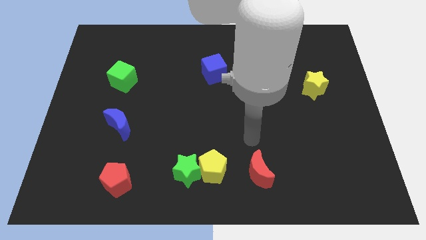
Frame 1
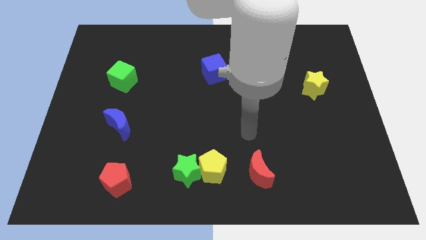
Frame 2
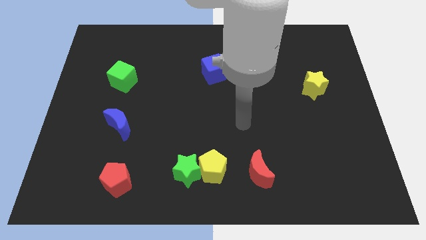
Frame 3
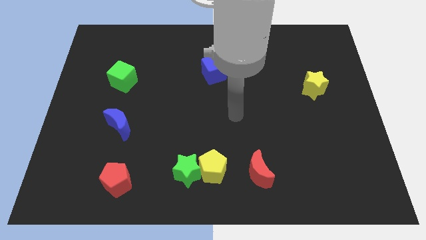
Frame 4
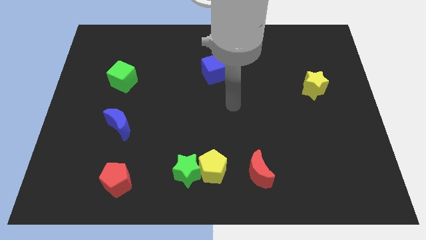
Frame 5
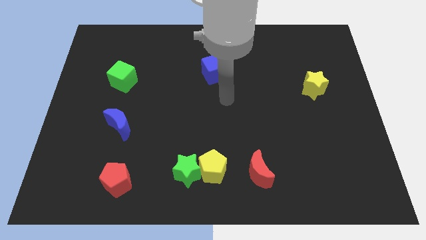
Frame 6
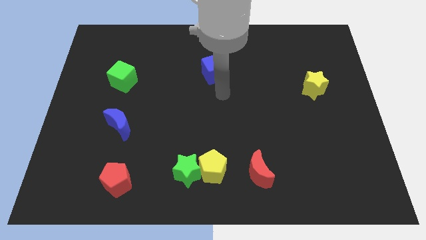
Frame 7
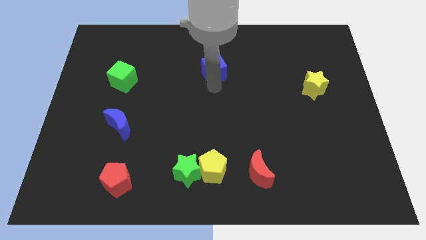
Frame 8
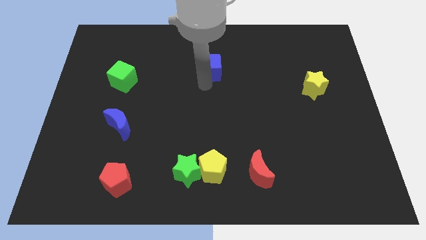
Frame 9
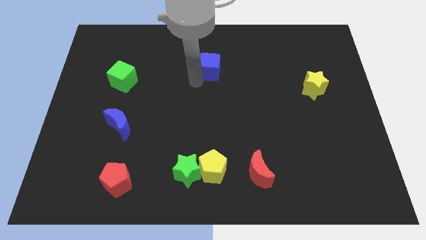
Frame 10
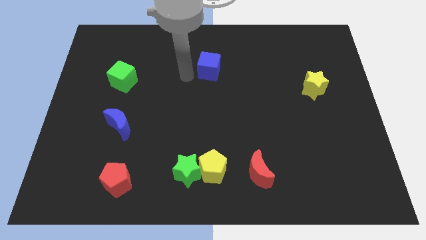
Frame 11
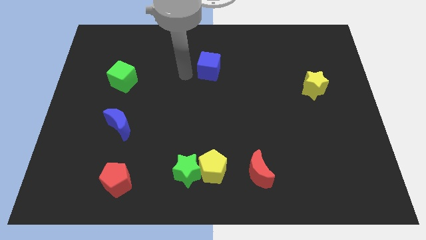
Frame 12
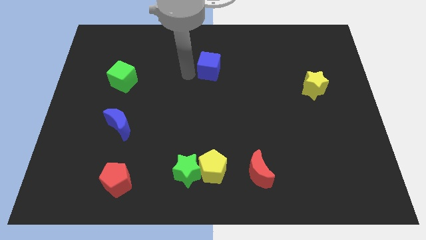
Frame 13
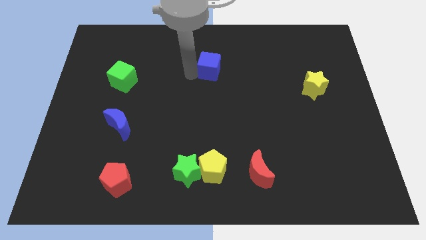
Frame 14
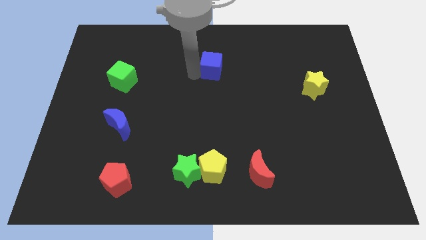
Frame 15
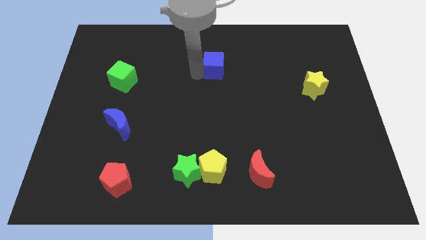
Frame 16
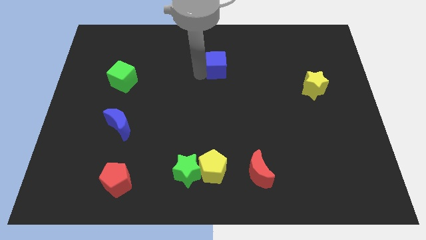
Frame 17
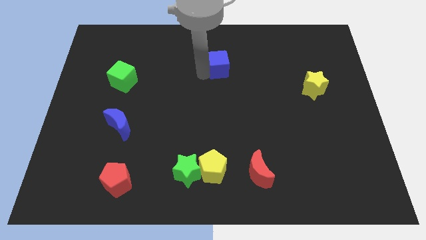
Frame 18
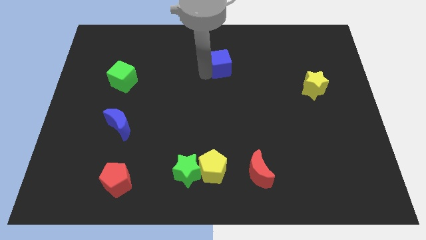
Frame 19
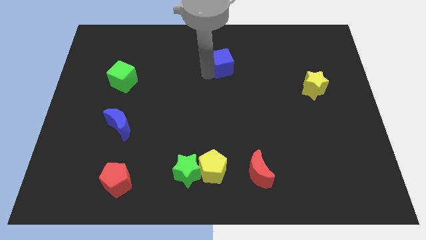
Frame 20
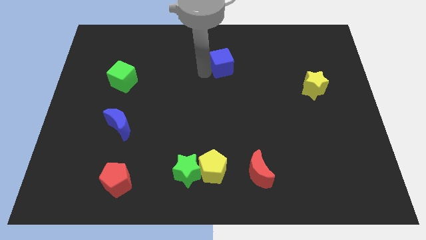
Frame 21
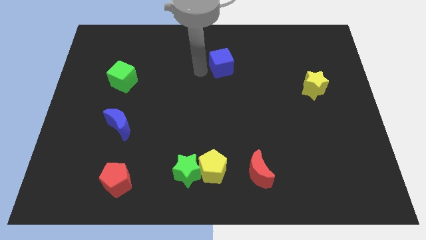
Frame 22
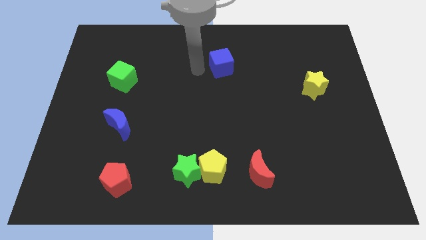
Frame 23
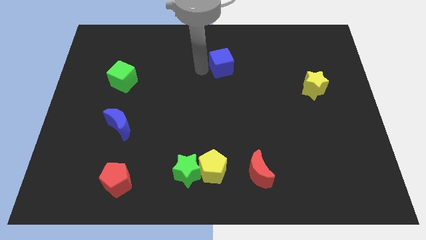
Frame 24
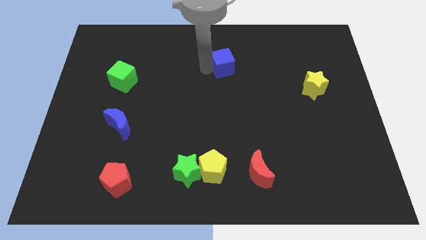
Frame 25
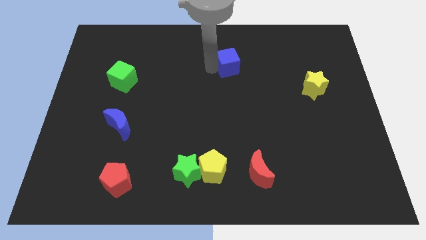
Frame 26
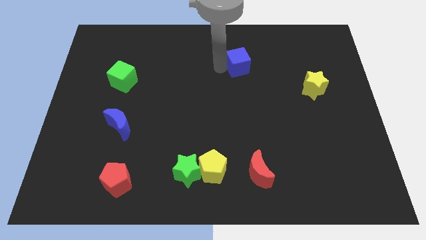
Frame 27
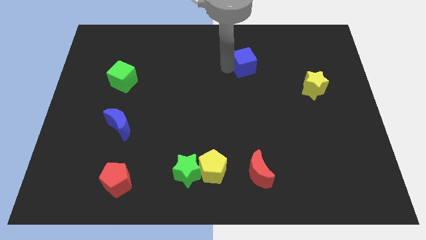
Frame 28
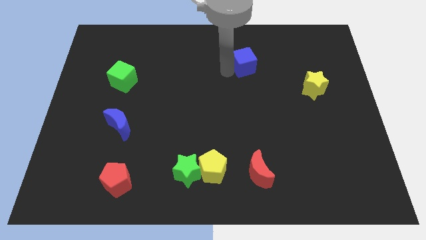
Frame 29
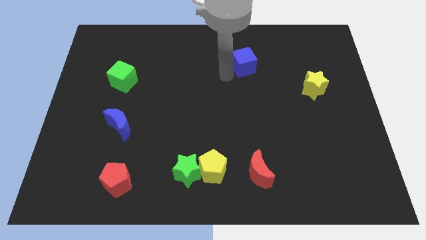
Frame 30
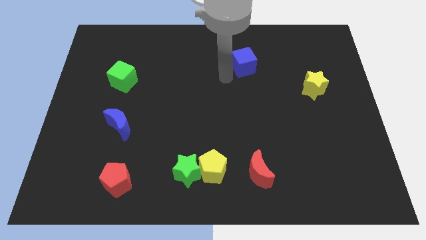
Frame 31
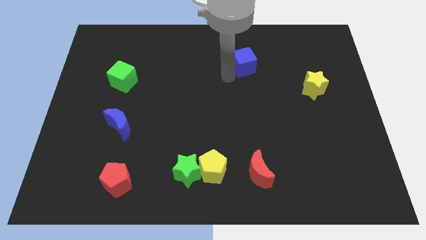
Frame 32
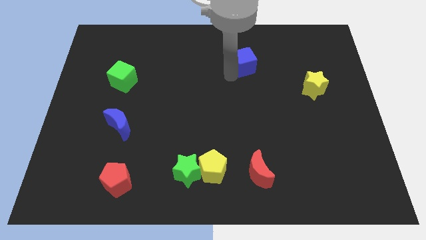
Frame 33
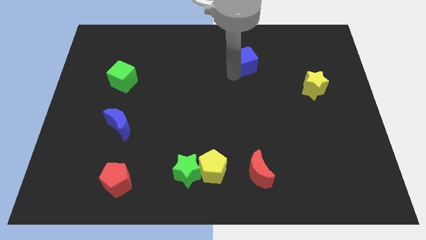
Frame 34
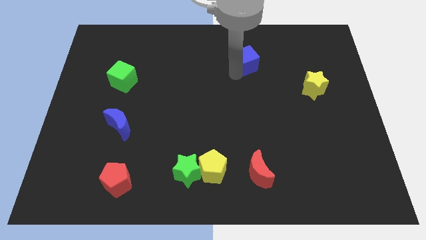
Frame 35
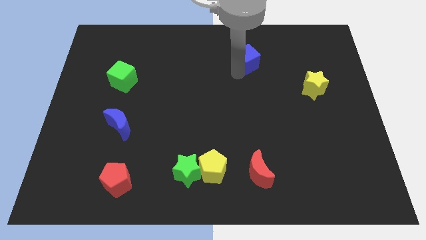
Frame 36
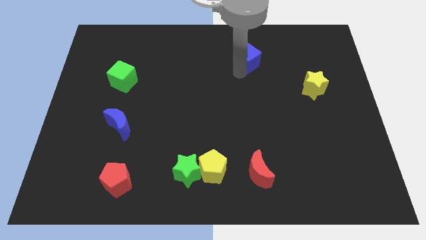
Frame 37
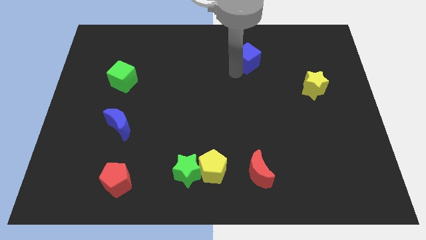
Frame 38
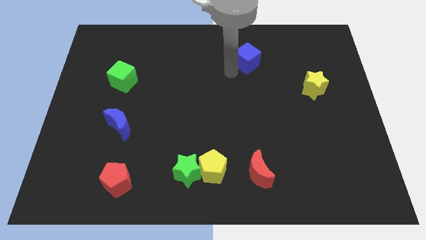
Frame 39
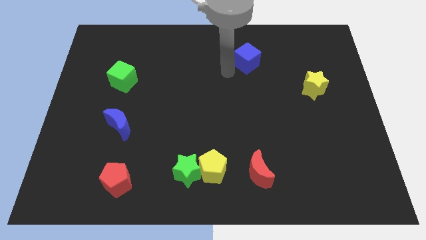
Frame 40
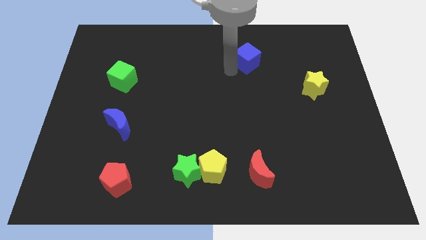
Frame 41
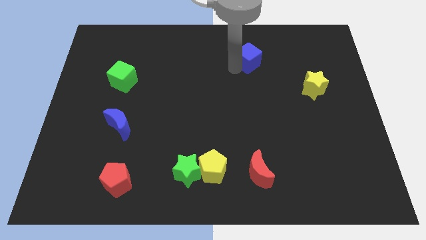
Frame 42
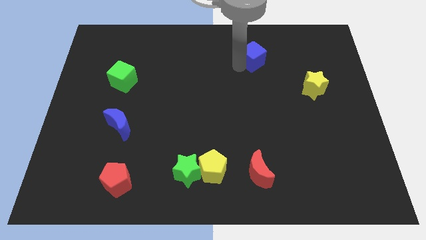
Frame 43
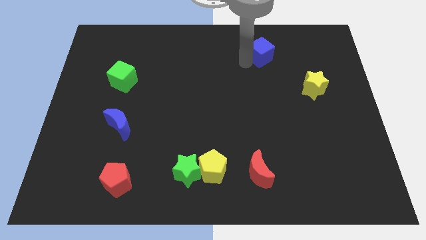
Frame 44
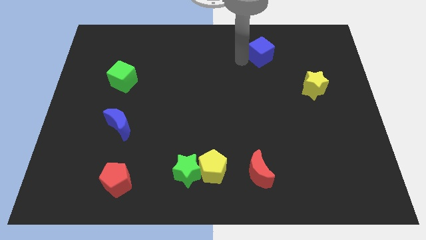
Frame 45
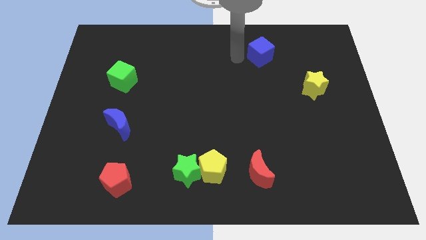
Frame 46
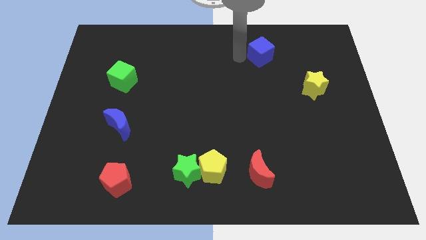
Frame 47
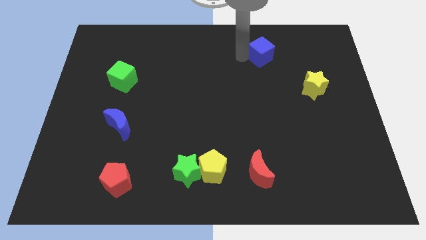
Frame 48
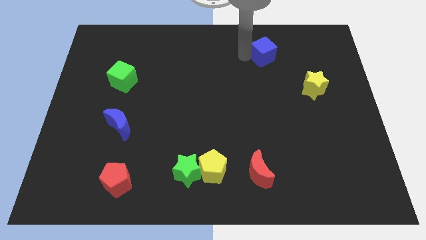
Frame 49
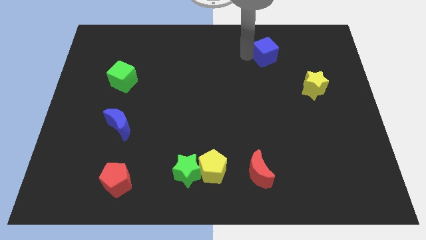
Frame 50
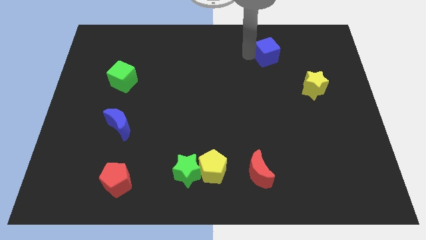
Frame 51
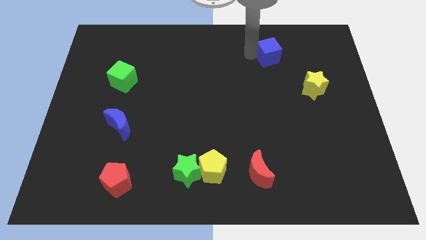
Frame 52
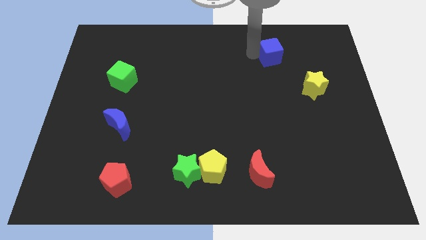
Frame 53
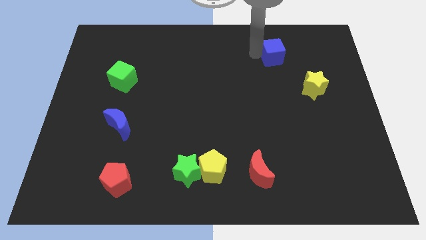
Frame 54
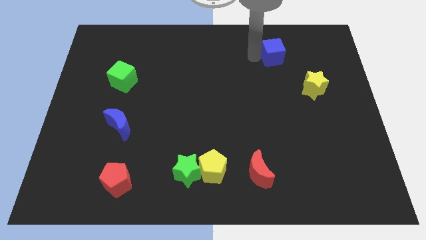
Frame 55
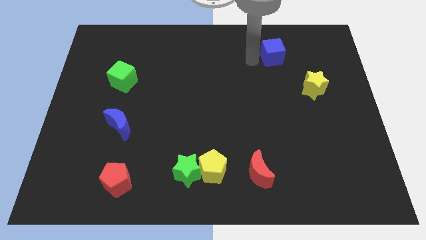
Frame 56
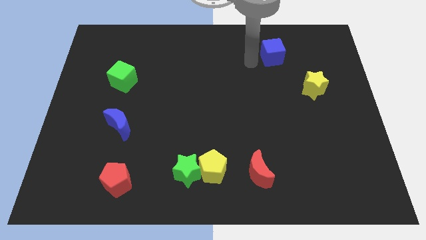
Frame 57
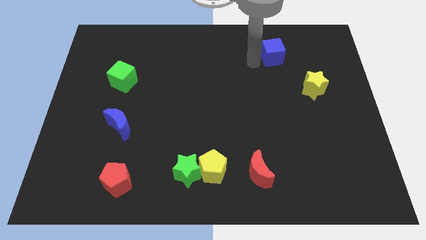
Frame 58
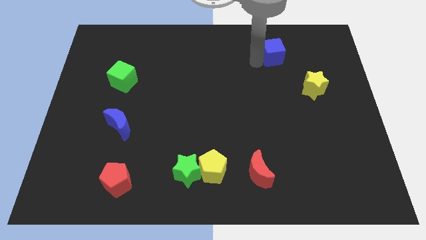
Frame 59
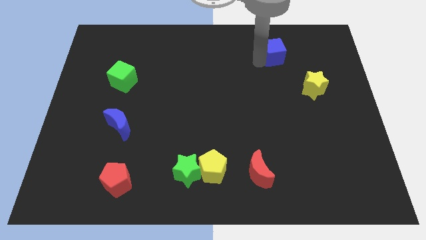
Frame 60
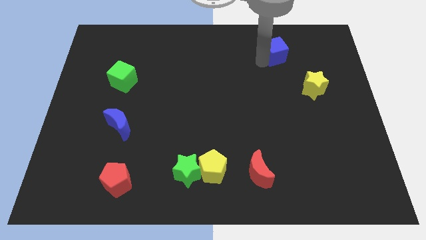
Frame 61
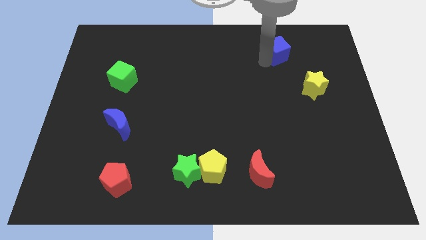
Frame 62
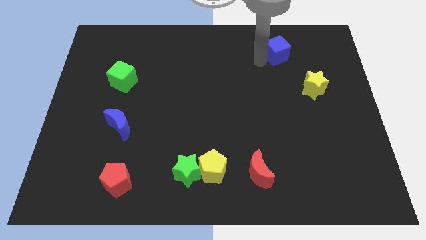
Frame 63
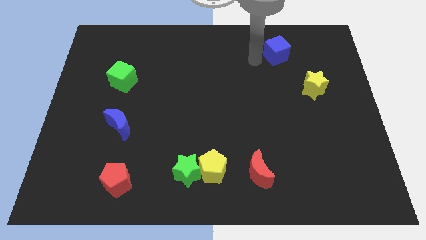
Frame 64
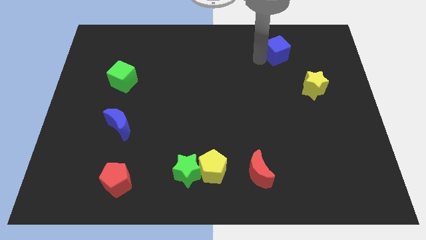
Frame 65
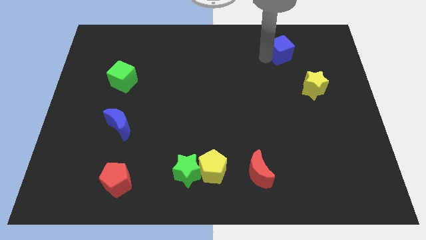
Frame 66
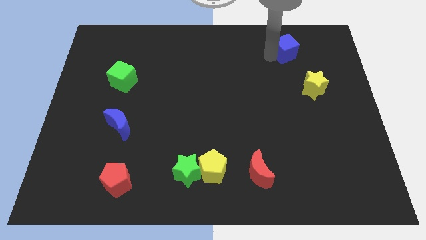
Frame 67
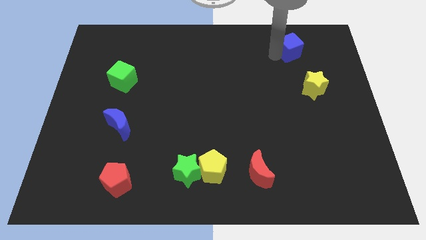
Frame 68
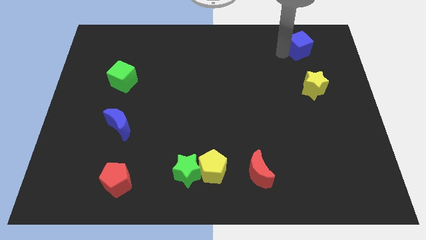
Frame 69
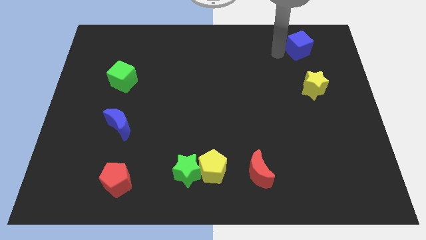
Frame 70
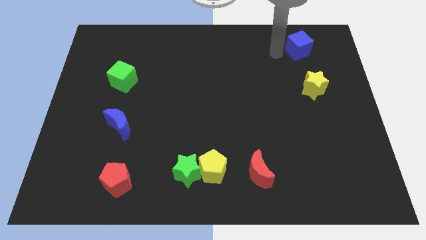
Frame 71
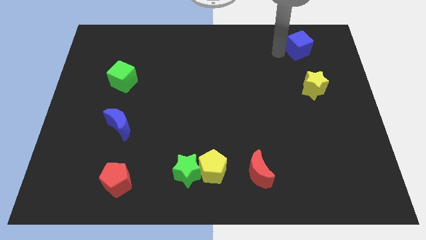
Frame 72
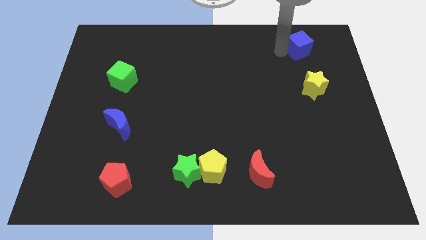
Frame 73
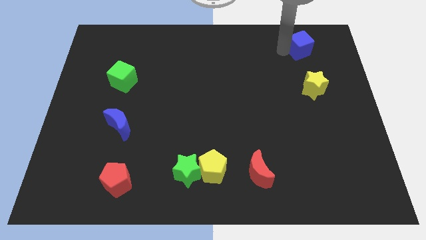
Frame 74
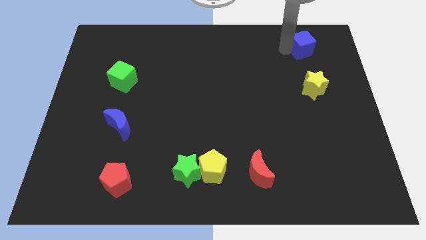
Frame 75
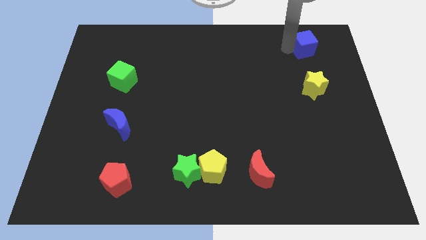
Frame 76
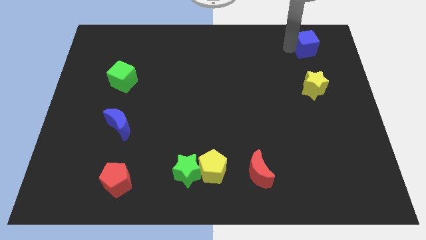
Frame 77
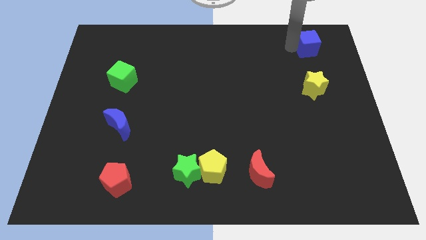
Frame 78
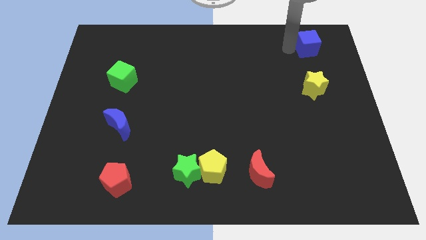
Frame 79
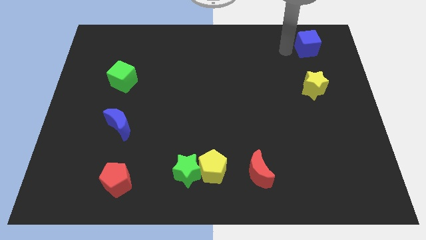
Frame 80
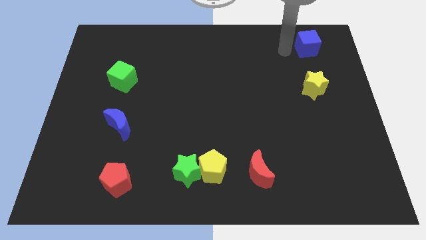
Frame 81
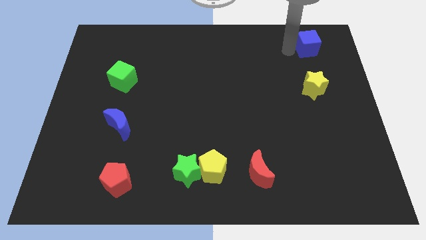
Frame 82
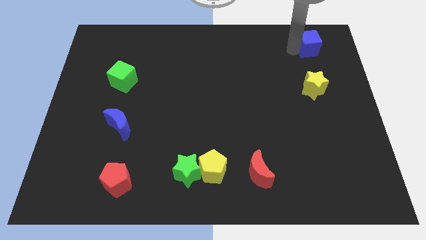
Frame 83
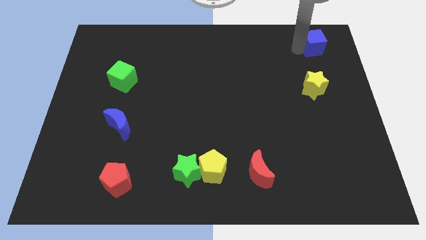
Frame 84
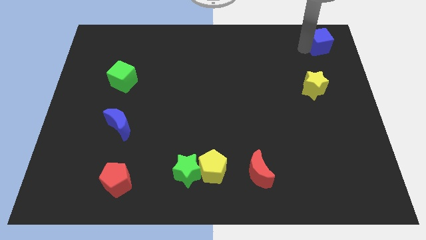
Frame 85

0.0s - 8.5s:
slide the blue cube to the top right corner
